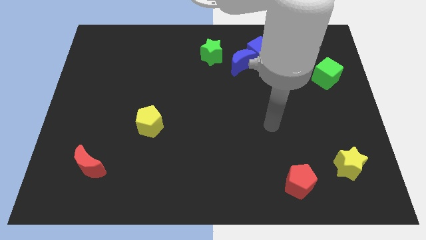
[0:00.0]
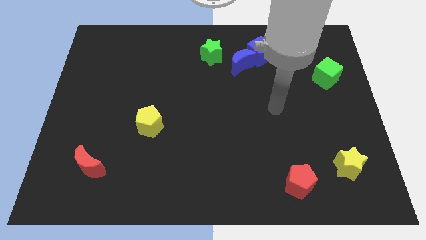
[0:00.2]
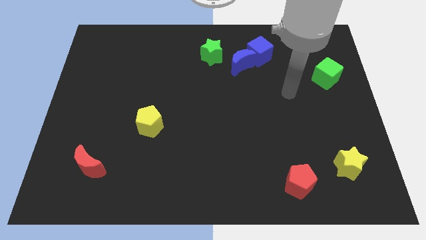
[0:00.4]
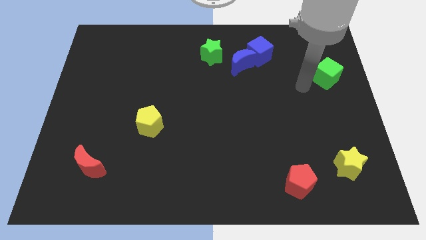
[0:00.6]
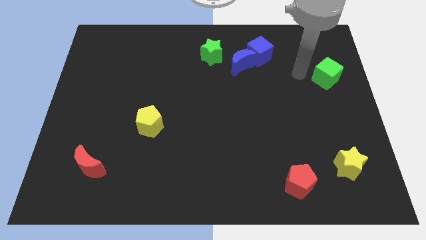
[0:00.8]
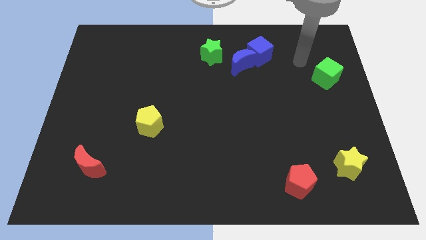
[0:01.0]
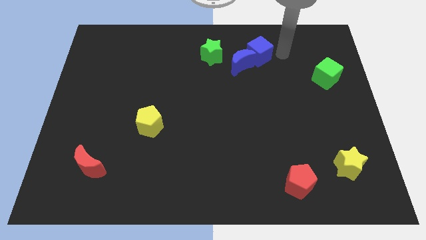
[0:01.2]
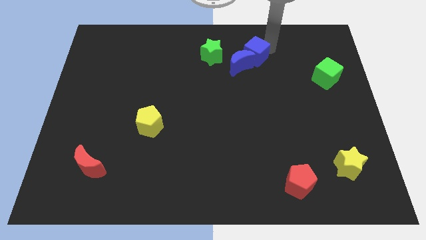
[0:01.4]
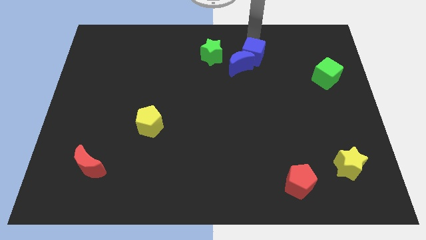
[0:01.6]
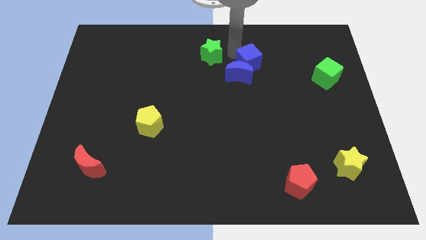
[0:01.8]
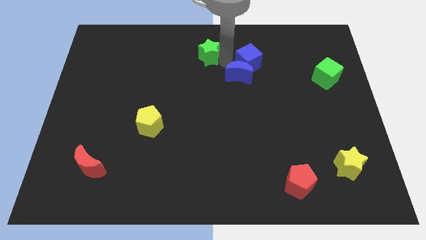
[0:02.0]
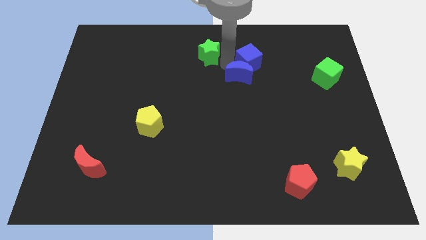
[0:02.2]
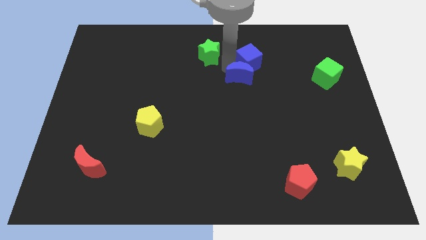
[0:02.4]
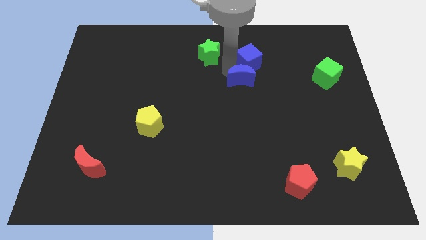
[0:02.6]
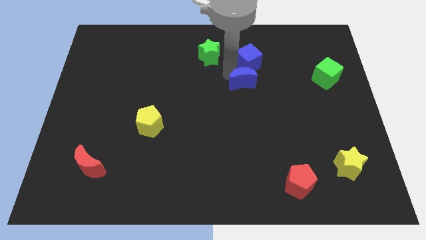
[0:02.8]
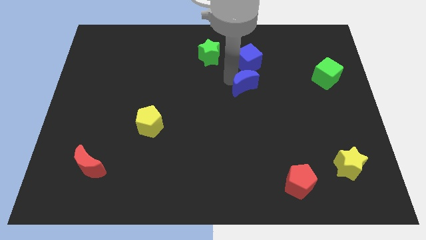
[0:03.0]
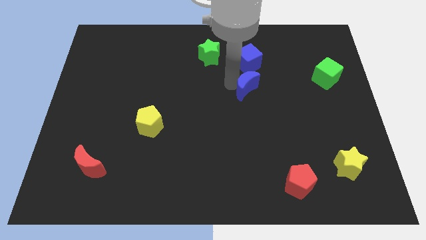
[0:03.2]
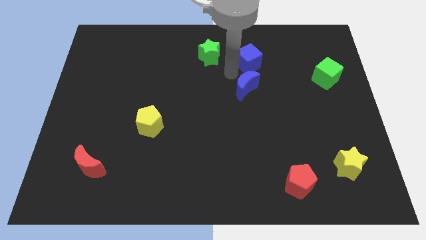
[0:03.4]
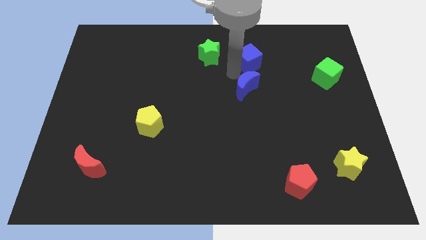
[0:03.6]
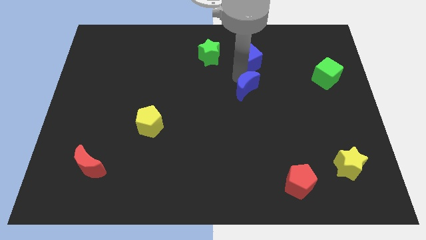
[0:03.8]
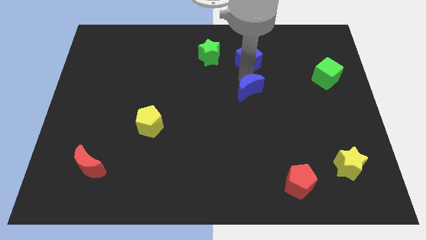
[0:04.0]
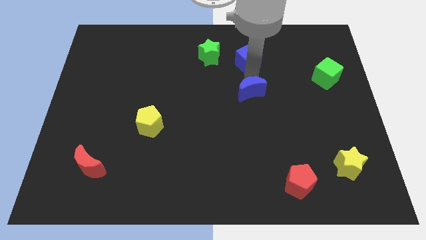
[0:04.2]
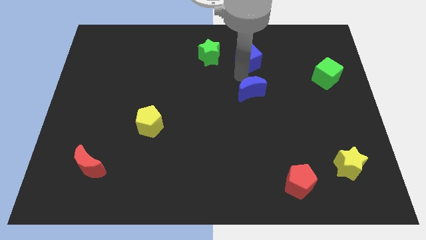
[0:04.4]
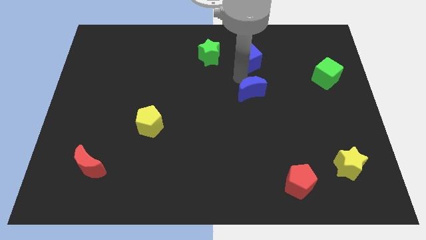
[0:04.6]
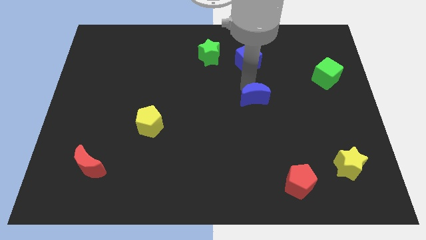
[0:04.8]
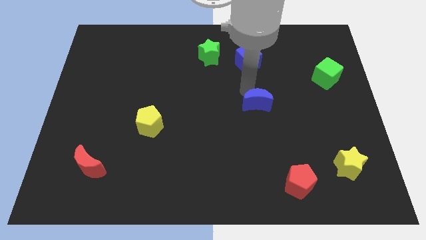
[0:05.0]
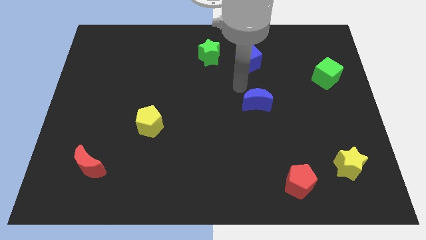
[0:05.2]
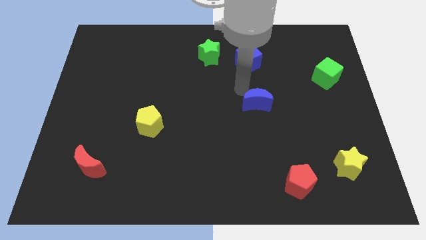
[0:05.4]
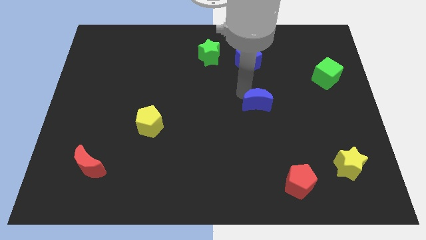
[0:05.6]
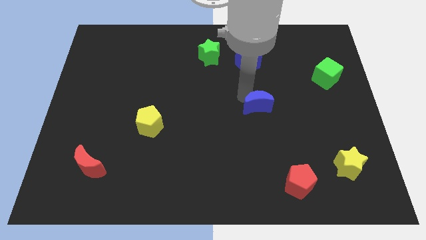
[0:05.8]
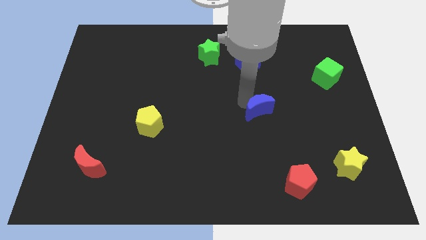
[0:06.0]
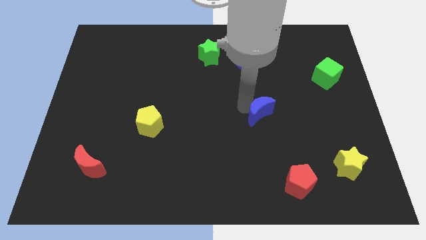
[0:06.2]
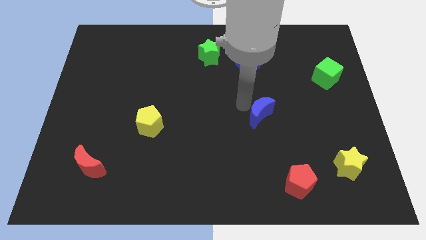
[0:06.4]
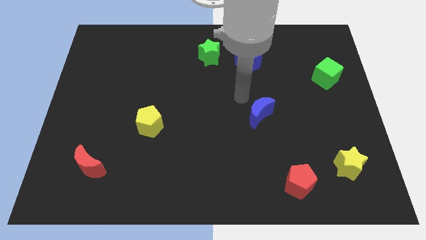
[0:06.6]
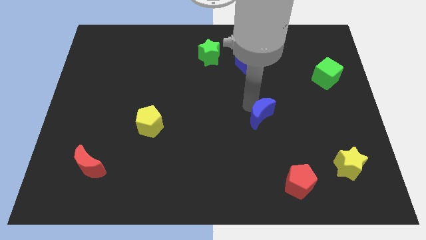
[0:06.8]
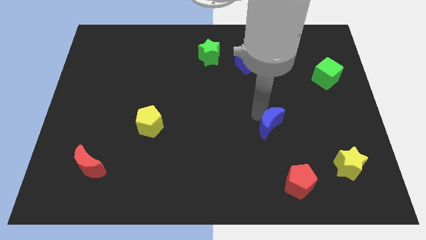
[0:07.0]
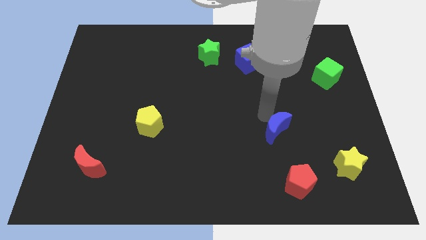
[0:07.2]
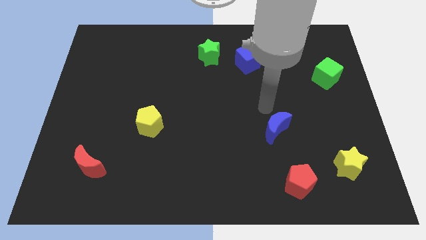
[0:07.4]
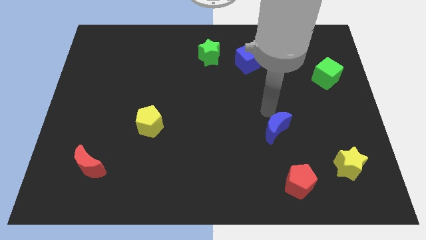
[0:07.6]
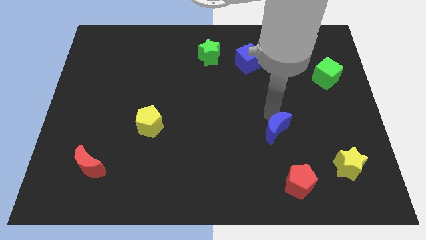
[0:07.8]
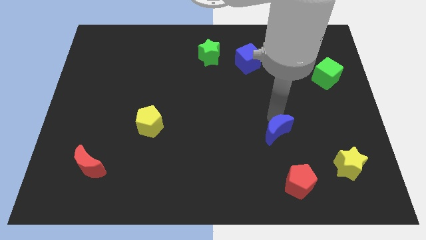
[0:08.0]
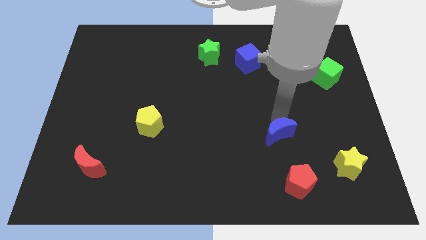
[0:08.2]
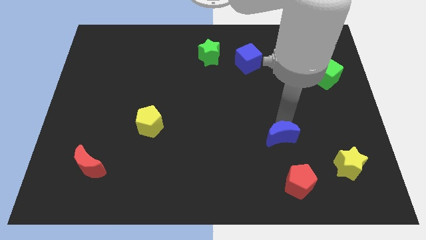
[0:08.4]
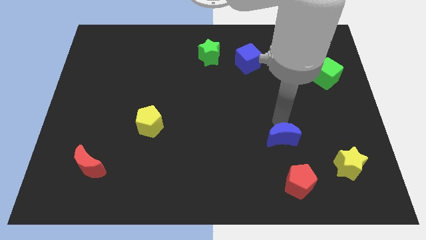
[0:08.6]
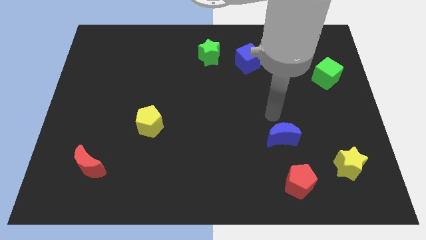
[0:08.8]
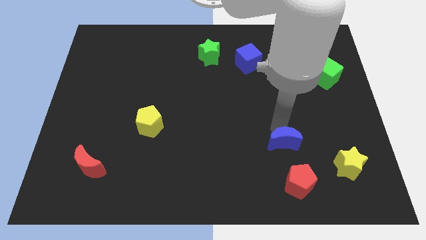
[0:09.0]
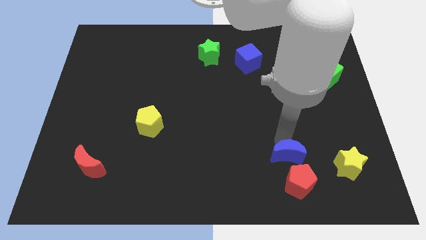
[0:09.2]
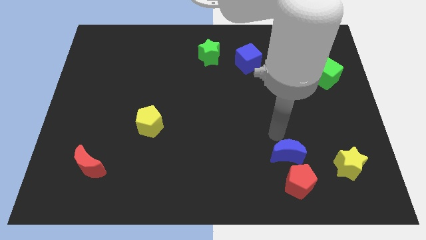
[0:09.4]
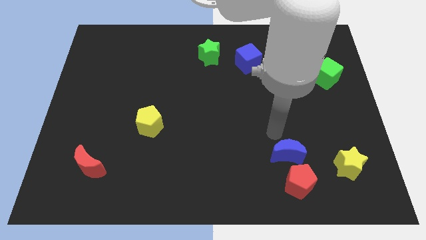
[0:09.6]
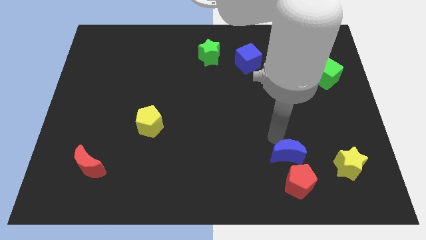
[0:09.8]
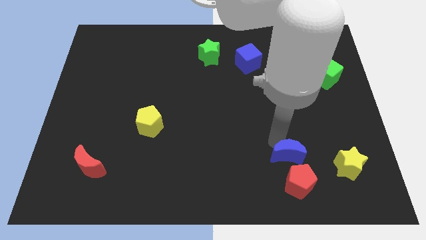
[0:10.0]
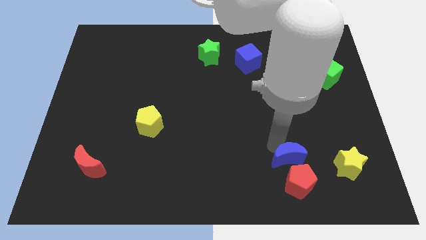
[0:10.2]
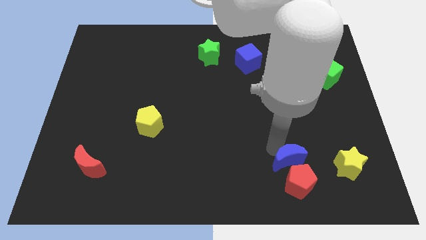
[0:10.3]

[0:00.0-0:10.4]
put the blue moon to the red pentagon

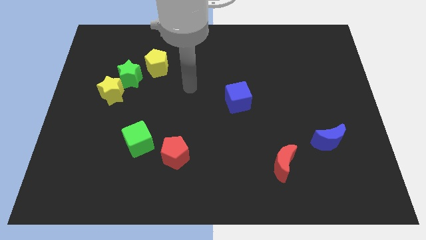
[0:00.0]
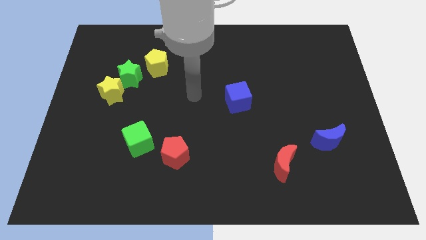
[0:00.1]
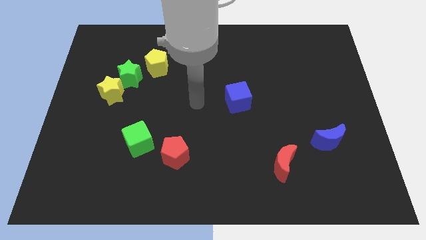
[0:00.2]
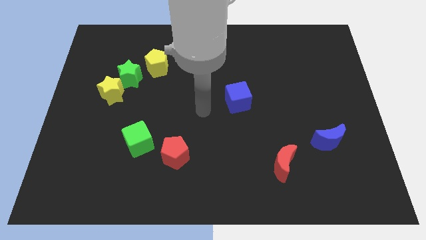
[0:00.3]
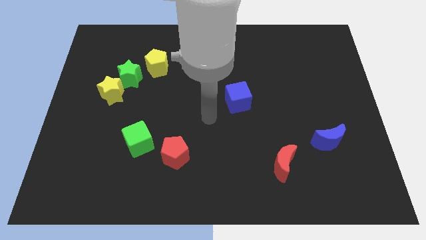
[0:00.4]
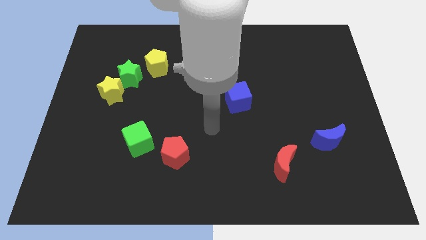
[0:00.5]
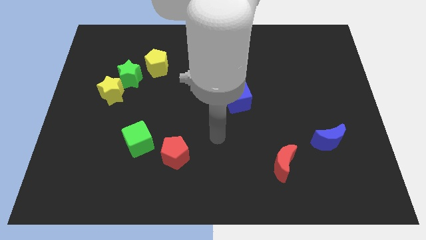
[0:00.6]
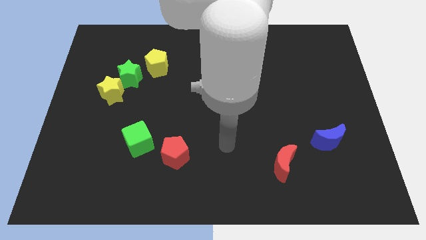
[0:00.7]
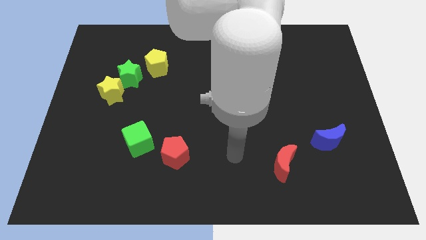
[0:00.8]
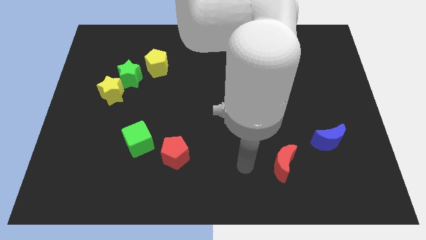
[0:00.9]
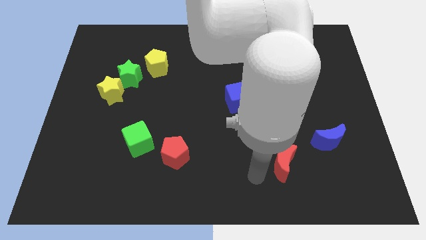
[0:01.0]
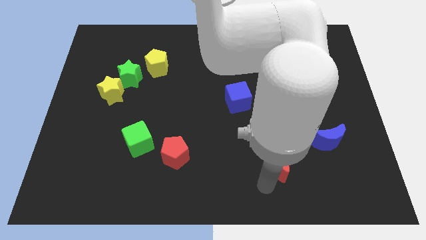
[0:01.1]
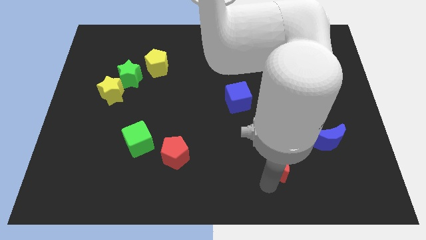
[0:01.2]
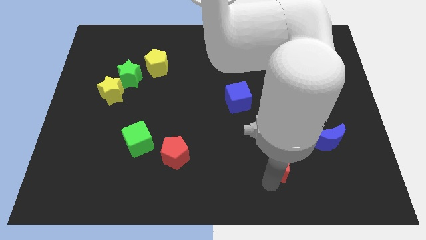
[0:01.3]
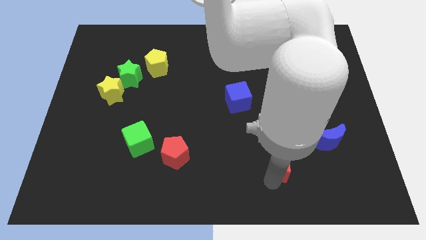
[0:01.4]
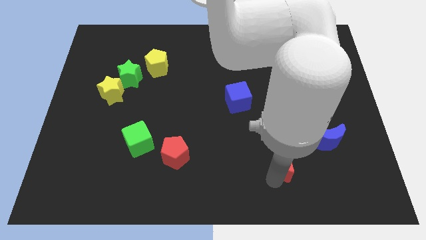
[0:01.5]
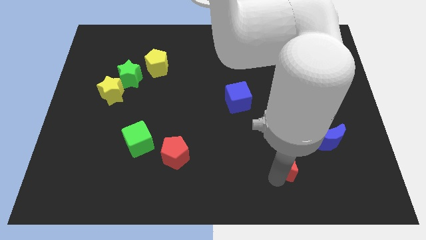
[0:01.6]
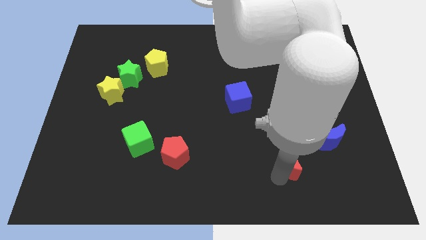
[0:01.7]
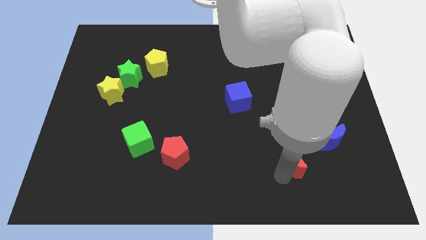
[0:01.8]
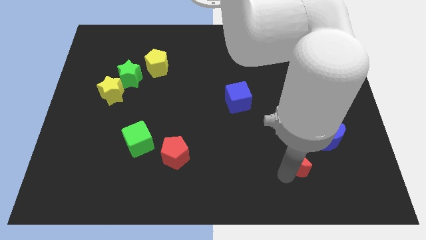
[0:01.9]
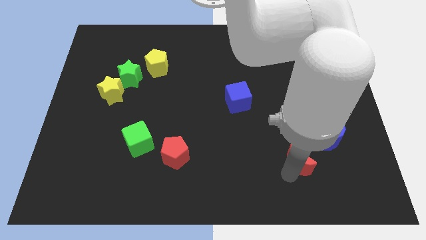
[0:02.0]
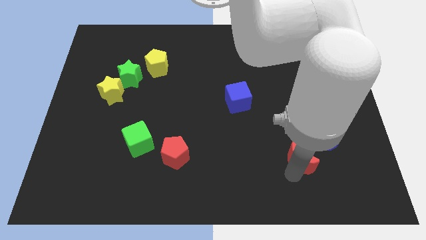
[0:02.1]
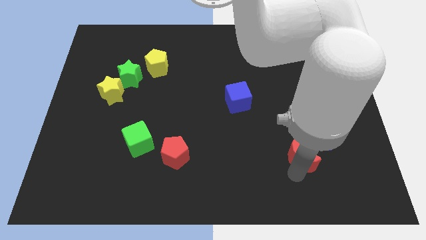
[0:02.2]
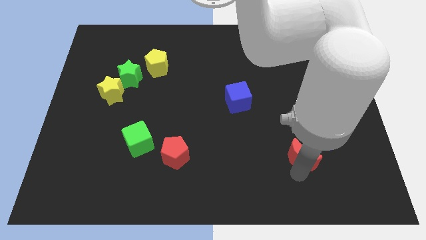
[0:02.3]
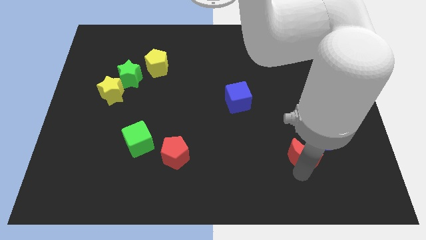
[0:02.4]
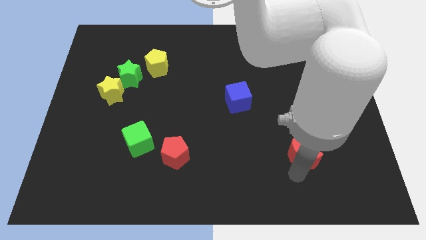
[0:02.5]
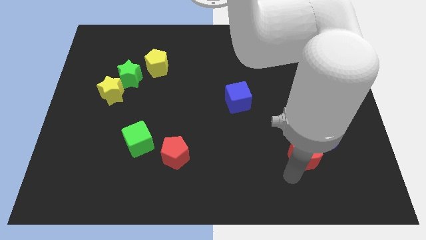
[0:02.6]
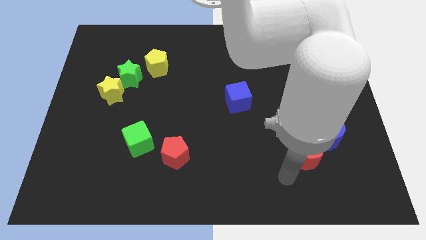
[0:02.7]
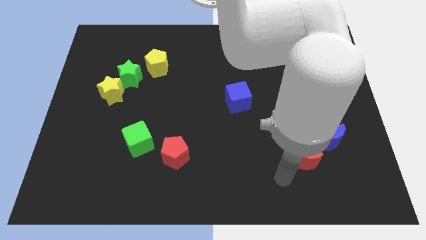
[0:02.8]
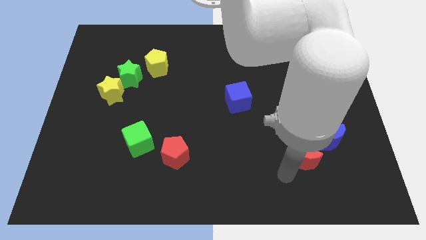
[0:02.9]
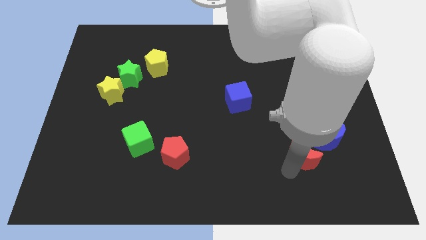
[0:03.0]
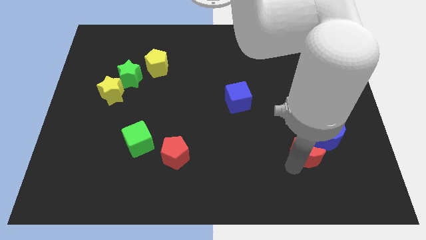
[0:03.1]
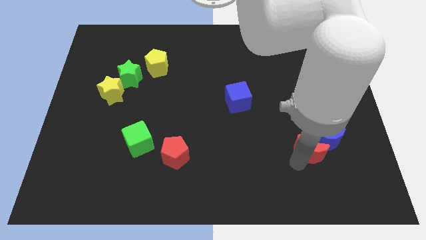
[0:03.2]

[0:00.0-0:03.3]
push the red moon to the blue moon
